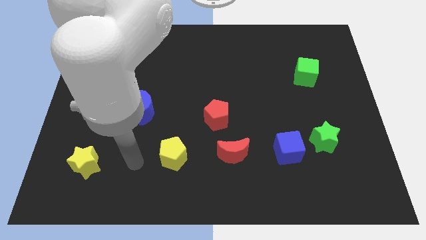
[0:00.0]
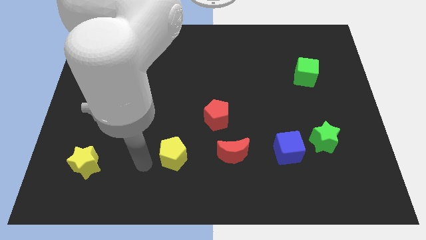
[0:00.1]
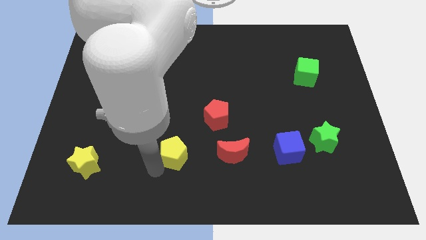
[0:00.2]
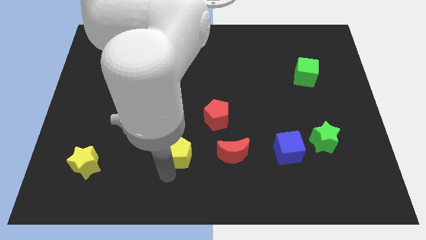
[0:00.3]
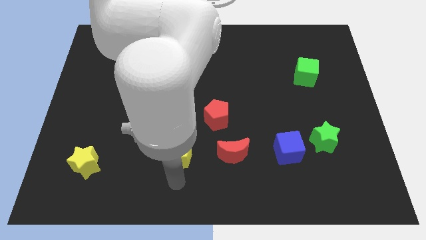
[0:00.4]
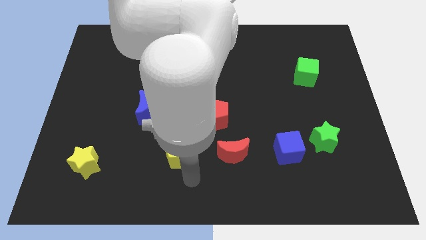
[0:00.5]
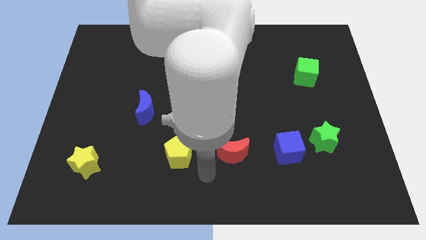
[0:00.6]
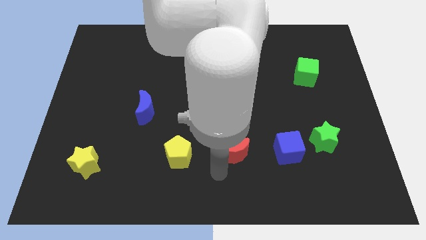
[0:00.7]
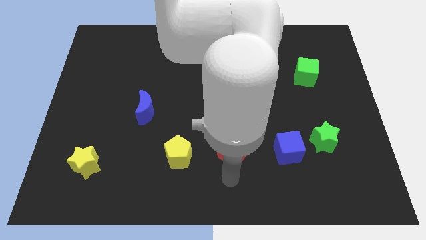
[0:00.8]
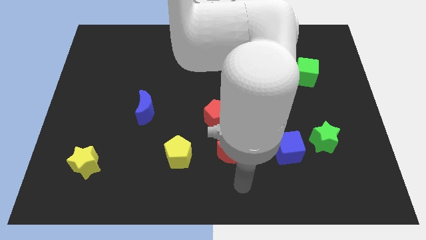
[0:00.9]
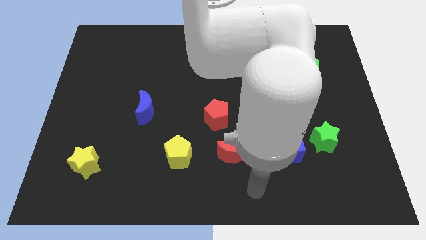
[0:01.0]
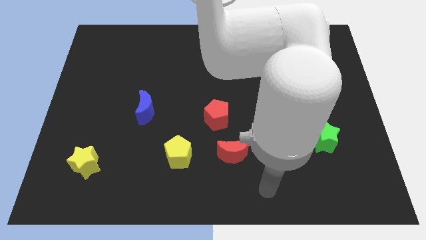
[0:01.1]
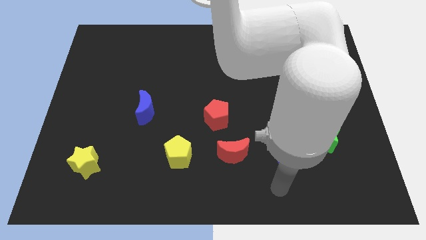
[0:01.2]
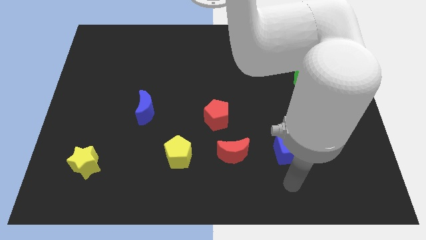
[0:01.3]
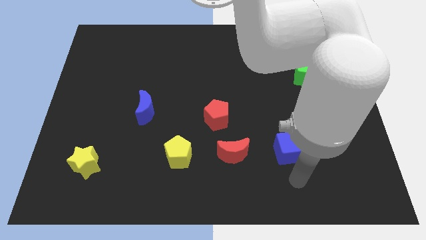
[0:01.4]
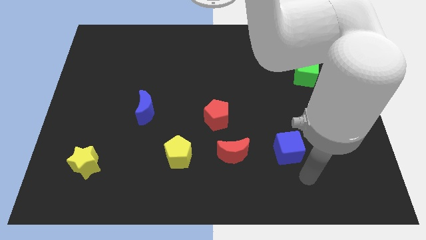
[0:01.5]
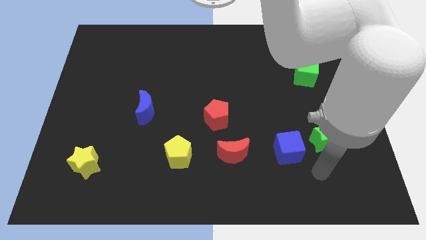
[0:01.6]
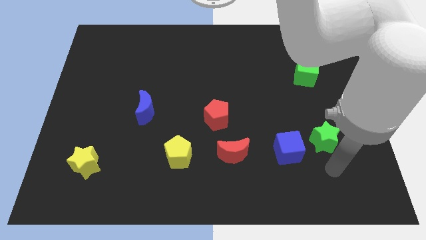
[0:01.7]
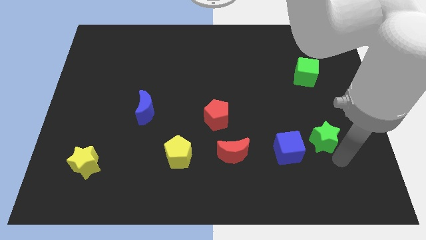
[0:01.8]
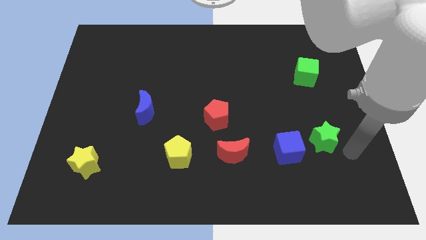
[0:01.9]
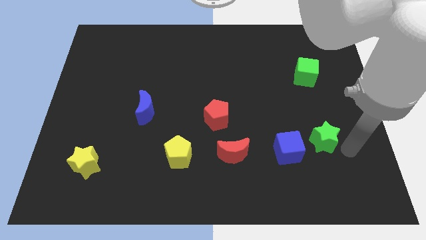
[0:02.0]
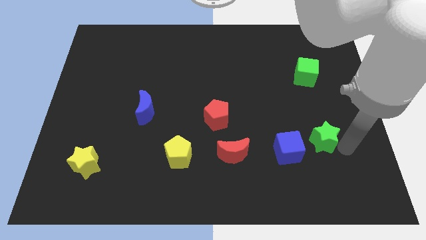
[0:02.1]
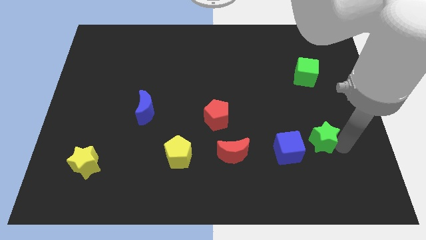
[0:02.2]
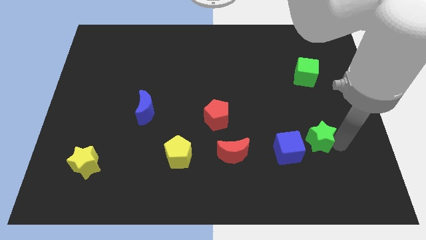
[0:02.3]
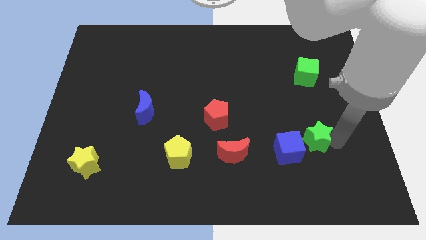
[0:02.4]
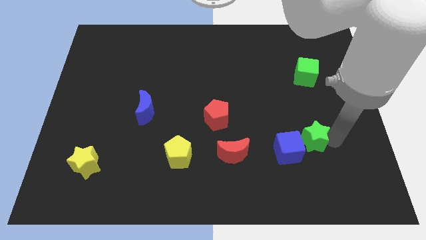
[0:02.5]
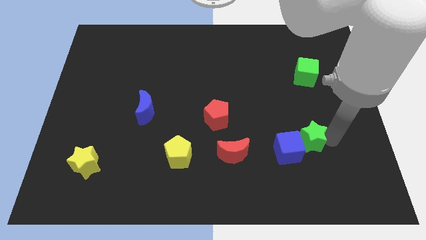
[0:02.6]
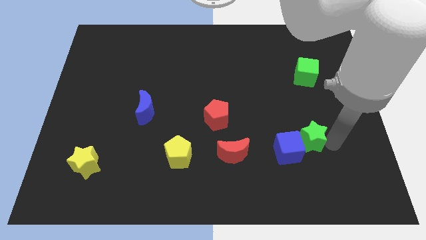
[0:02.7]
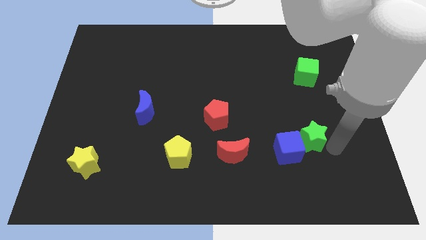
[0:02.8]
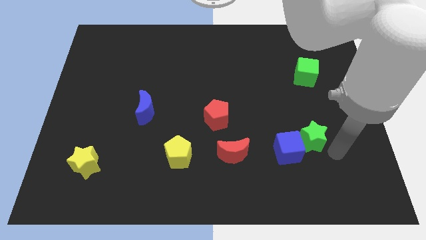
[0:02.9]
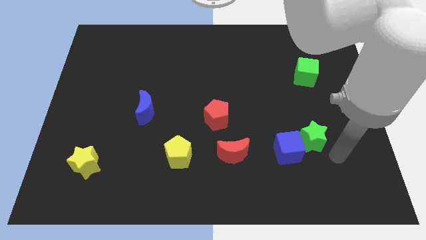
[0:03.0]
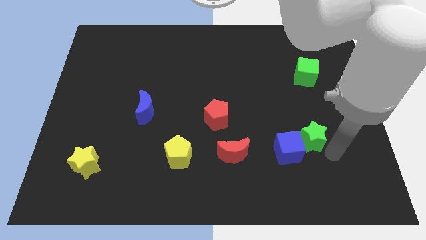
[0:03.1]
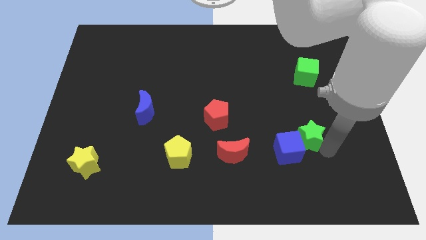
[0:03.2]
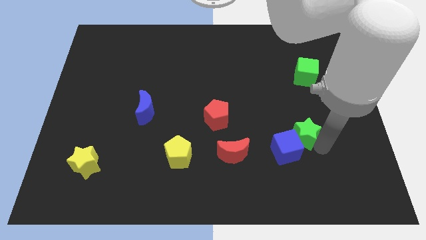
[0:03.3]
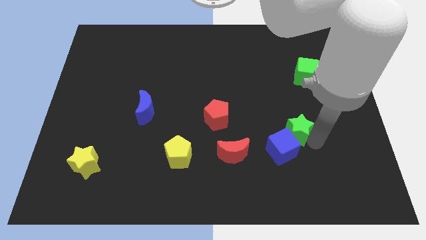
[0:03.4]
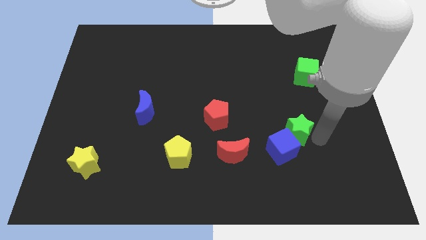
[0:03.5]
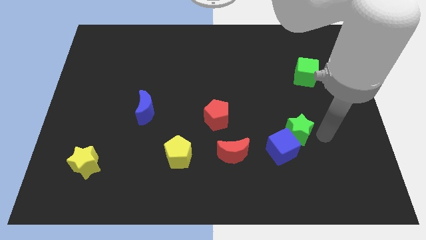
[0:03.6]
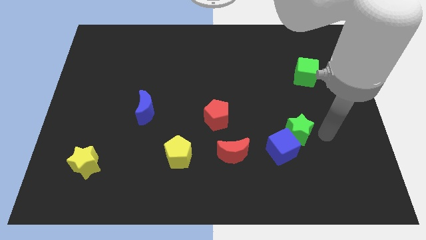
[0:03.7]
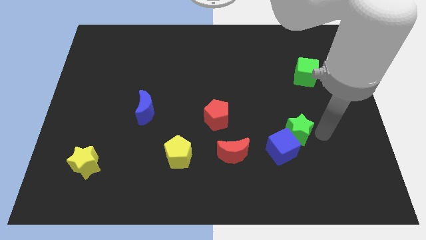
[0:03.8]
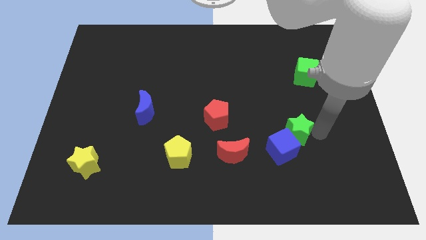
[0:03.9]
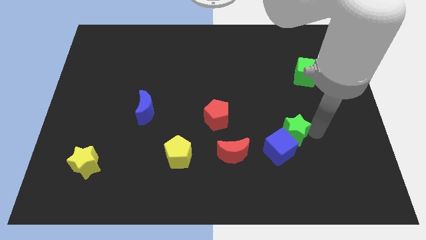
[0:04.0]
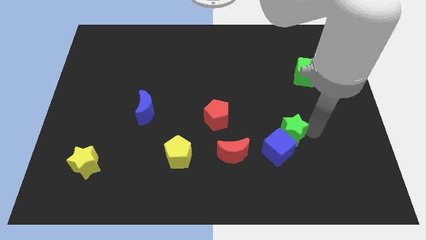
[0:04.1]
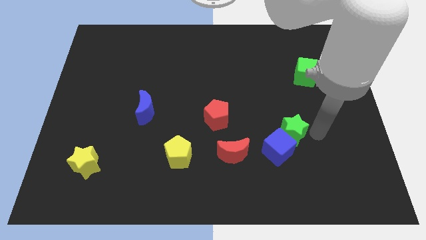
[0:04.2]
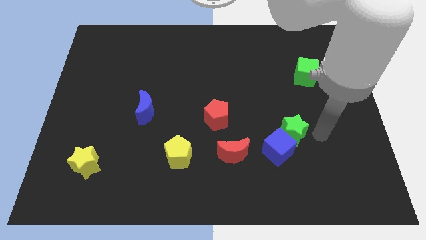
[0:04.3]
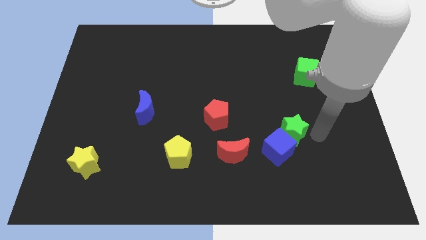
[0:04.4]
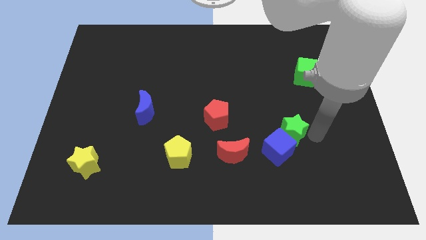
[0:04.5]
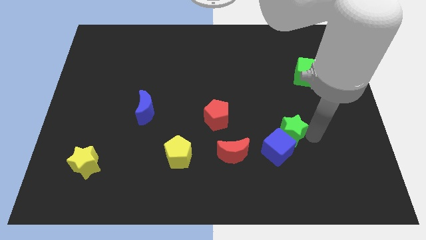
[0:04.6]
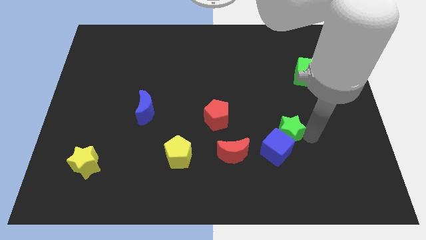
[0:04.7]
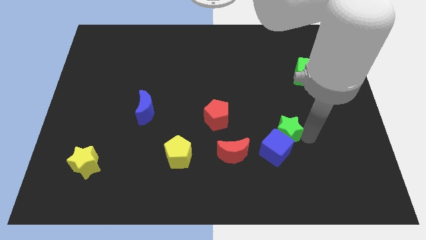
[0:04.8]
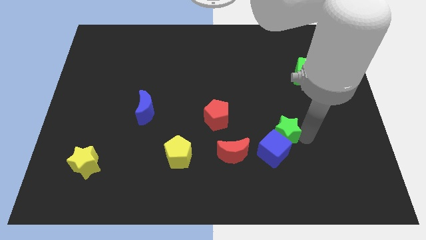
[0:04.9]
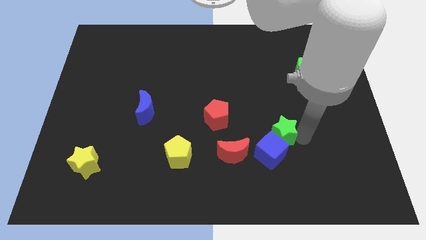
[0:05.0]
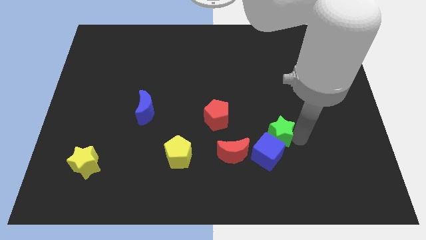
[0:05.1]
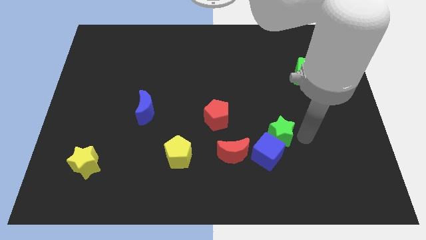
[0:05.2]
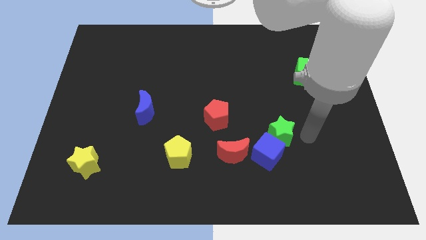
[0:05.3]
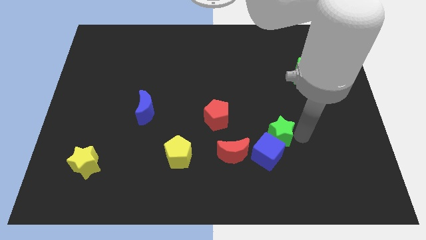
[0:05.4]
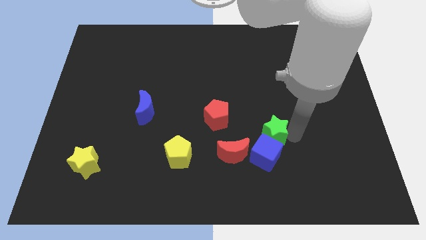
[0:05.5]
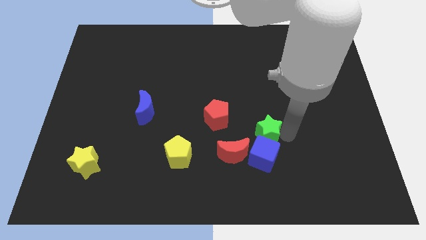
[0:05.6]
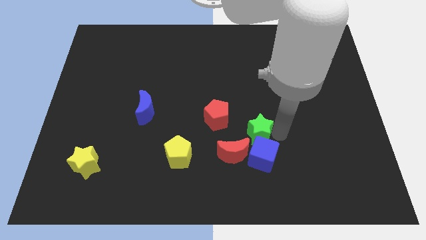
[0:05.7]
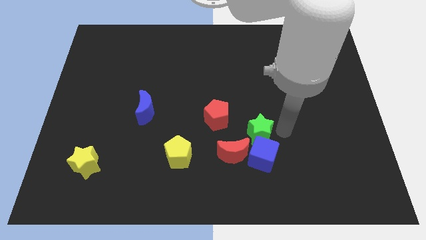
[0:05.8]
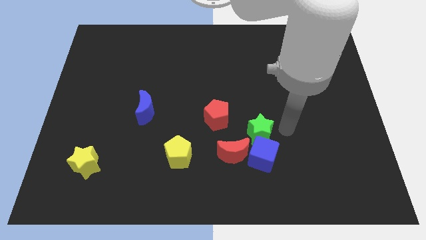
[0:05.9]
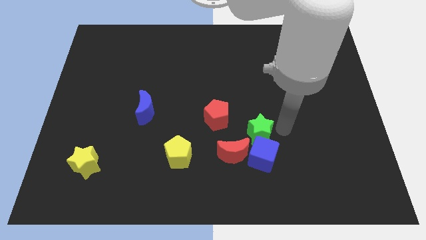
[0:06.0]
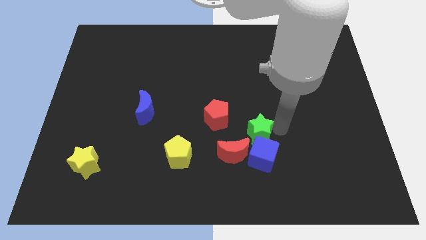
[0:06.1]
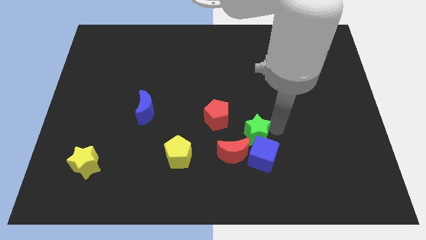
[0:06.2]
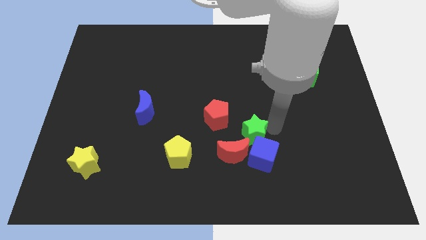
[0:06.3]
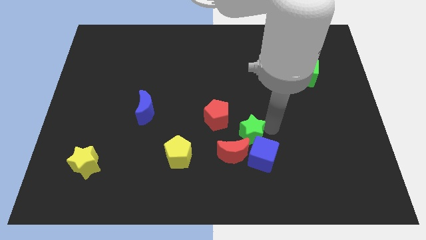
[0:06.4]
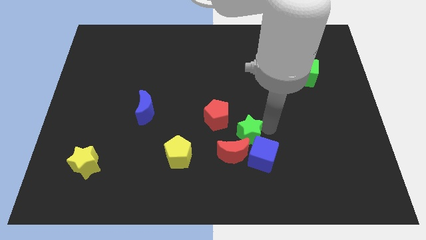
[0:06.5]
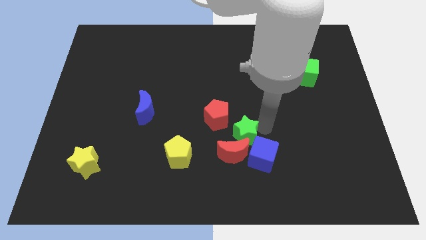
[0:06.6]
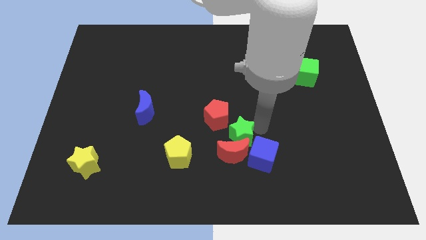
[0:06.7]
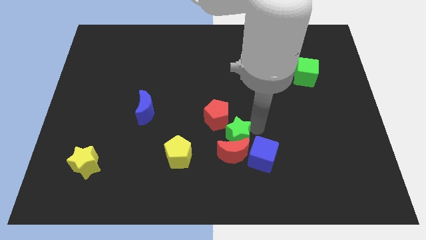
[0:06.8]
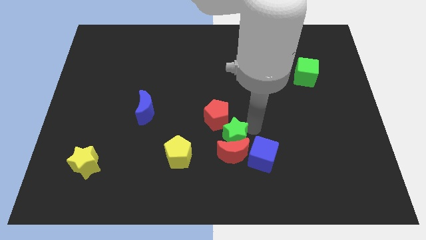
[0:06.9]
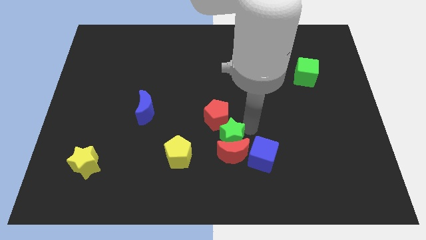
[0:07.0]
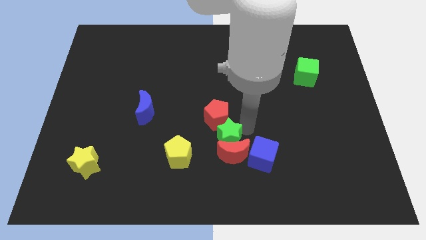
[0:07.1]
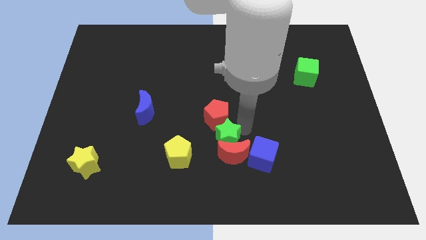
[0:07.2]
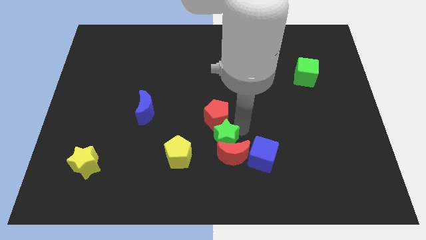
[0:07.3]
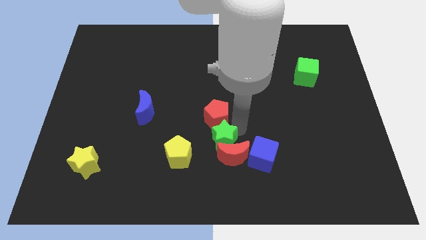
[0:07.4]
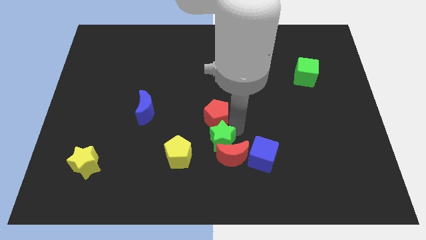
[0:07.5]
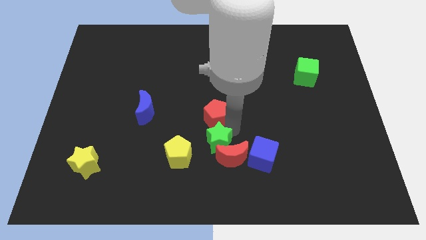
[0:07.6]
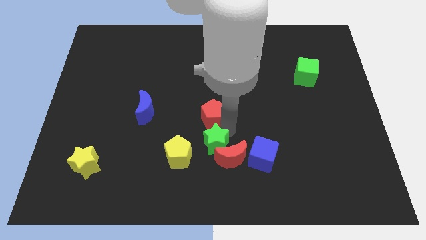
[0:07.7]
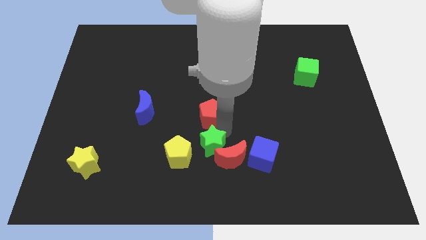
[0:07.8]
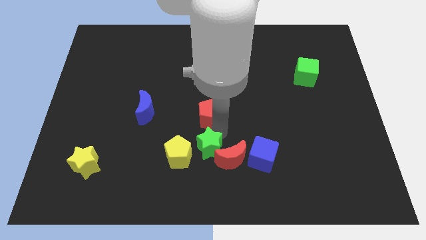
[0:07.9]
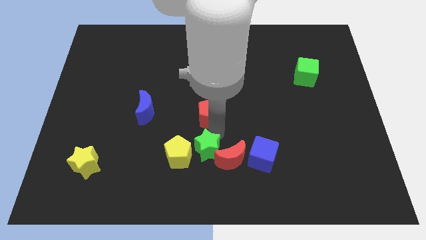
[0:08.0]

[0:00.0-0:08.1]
put the green star towards the yellow pentagon
